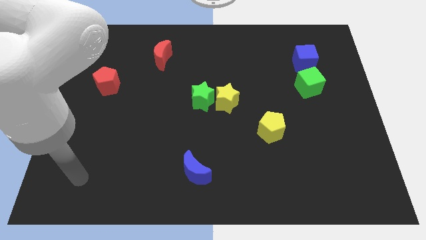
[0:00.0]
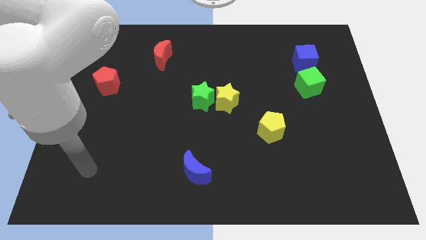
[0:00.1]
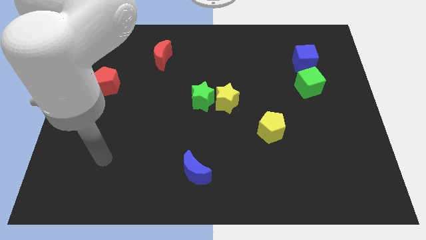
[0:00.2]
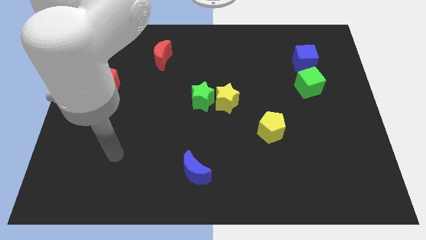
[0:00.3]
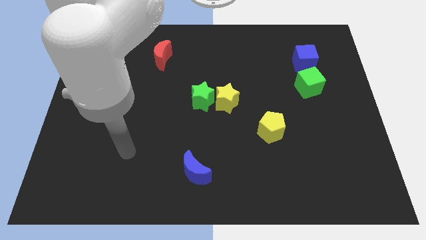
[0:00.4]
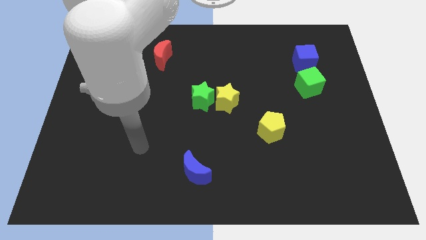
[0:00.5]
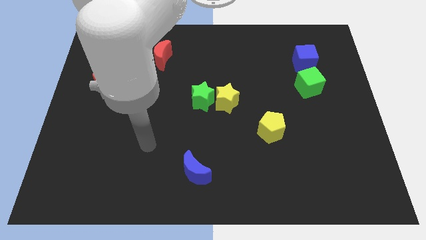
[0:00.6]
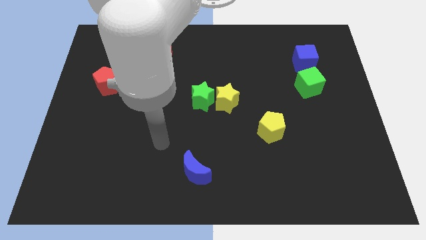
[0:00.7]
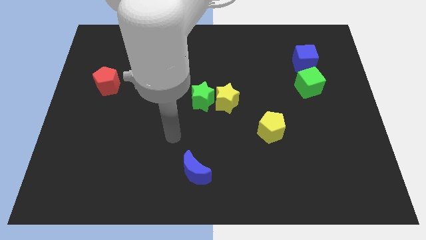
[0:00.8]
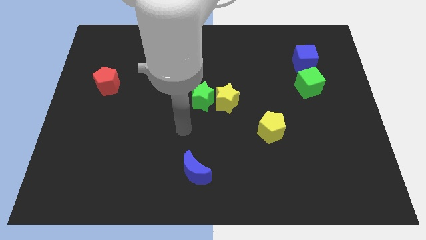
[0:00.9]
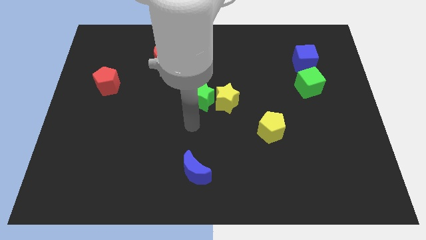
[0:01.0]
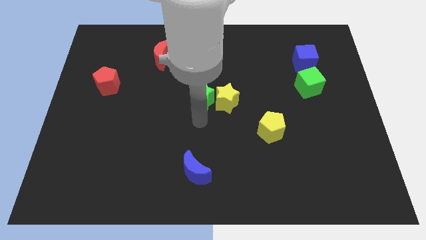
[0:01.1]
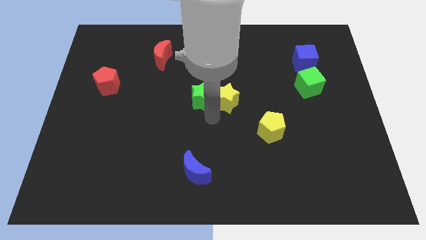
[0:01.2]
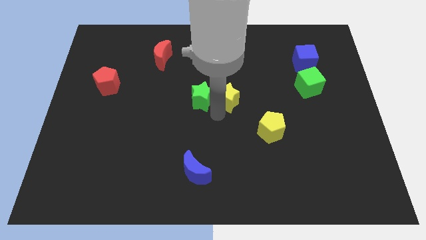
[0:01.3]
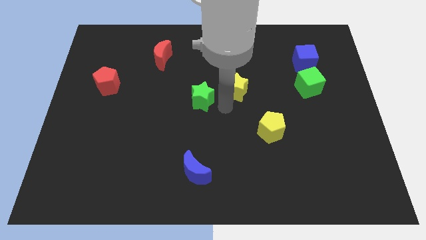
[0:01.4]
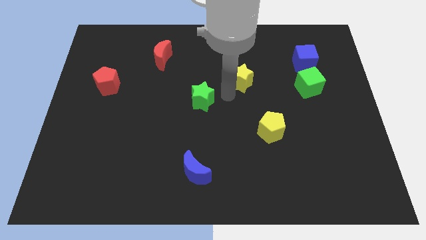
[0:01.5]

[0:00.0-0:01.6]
separate the green star from the yellow star

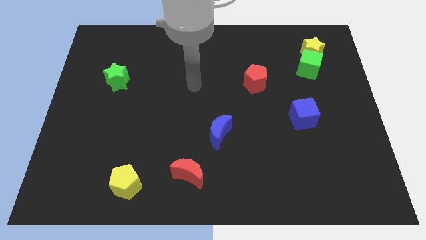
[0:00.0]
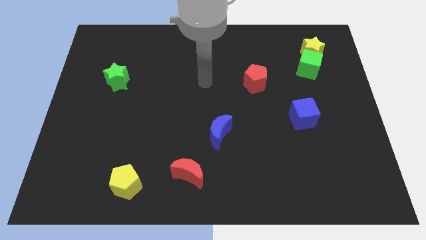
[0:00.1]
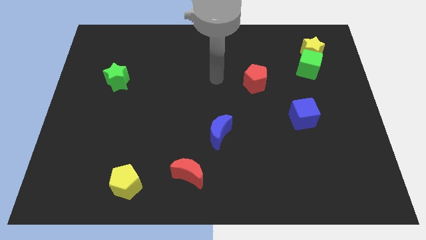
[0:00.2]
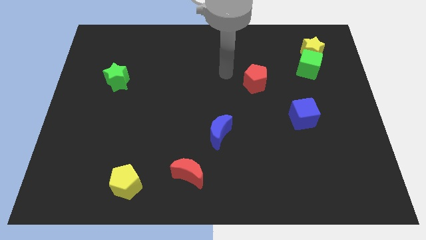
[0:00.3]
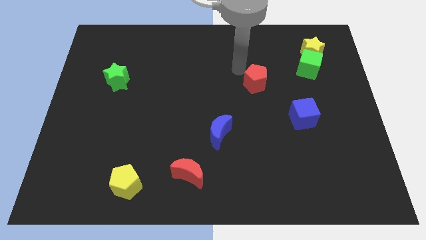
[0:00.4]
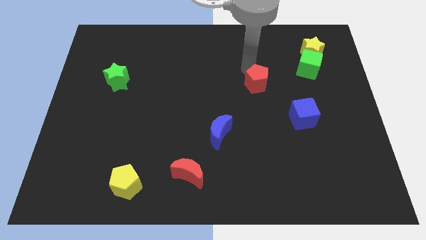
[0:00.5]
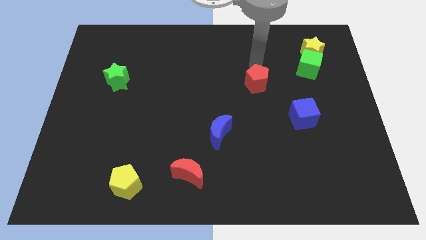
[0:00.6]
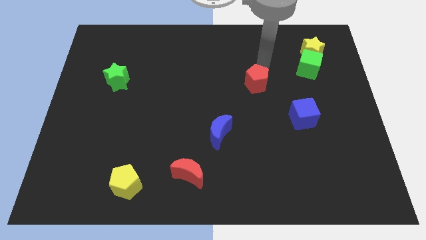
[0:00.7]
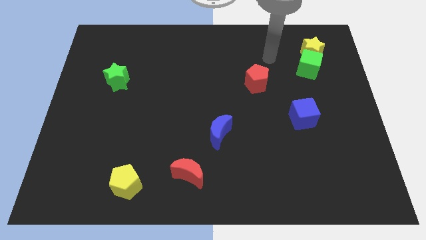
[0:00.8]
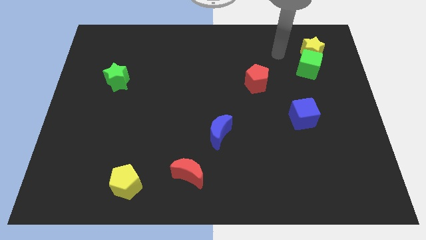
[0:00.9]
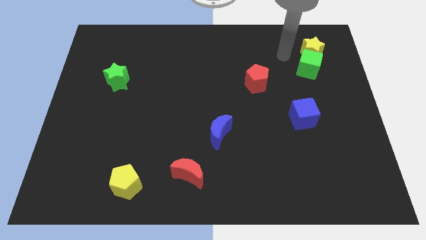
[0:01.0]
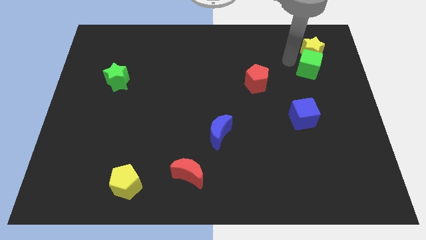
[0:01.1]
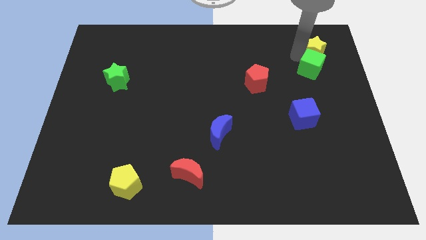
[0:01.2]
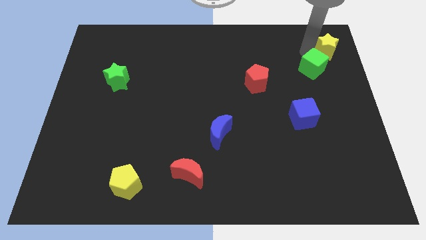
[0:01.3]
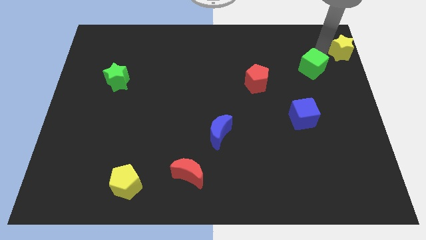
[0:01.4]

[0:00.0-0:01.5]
separate the green cube from the yellow star

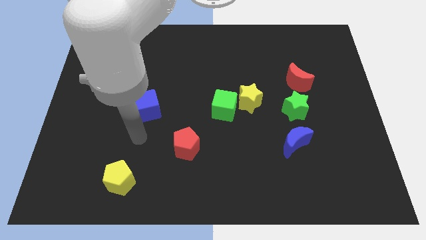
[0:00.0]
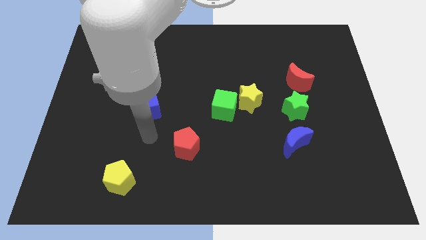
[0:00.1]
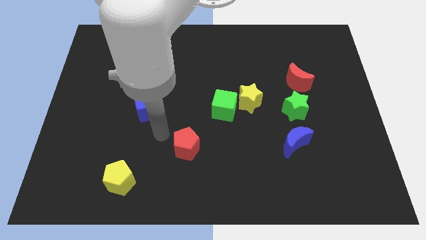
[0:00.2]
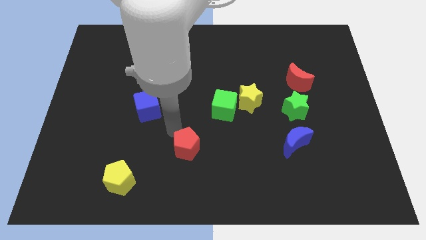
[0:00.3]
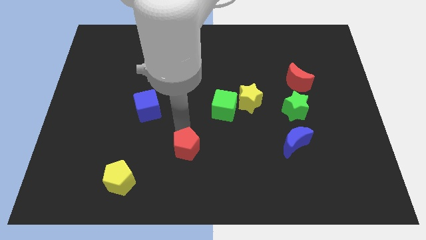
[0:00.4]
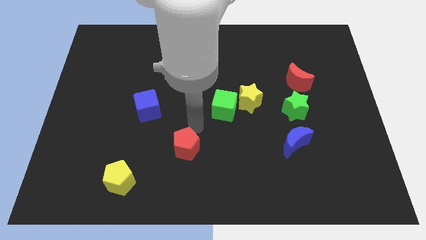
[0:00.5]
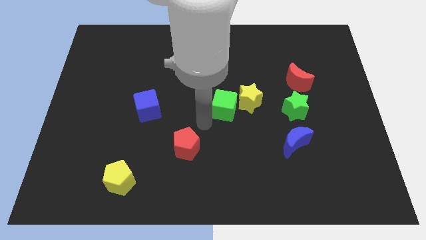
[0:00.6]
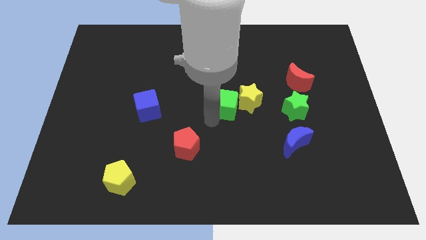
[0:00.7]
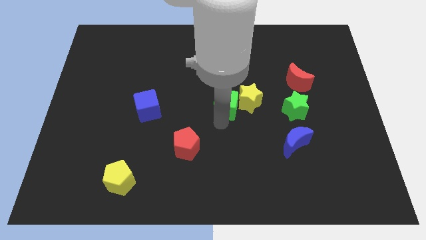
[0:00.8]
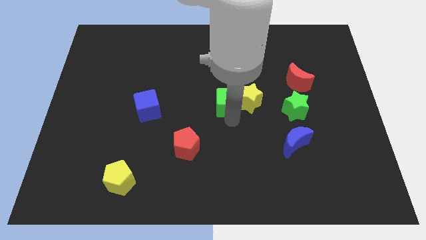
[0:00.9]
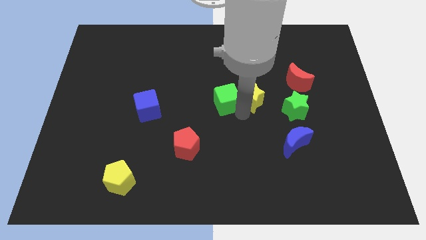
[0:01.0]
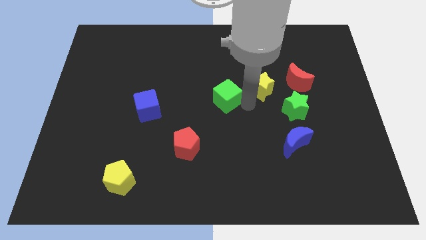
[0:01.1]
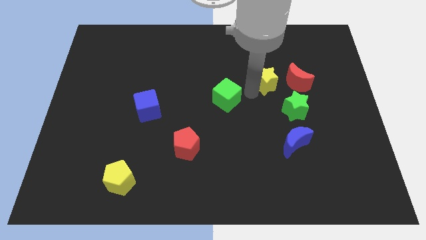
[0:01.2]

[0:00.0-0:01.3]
move the green cube away from the yellow star

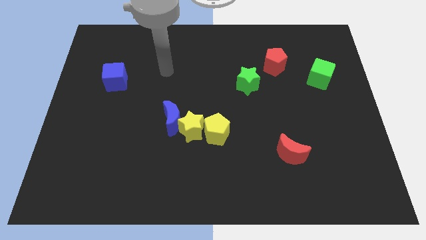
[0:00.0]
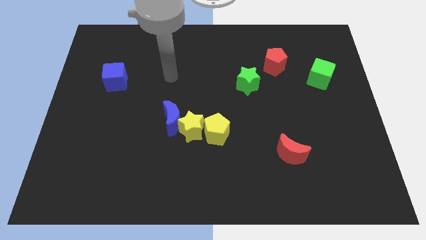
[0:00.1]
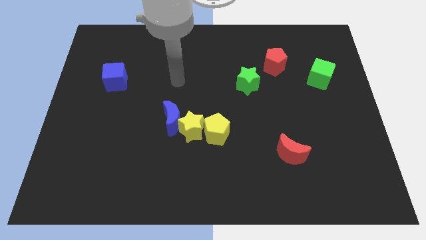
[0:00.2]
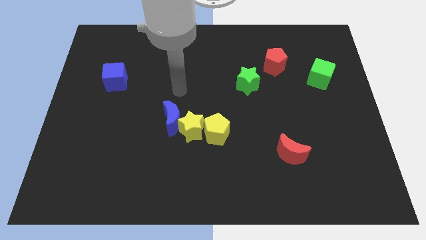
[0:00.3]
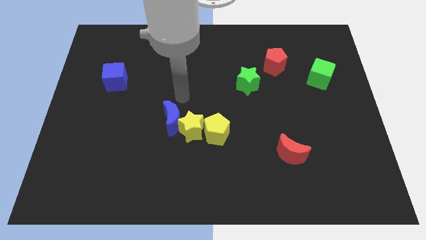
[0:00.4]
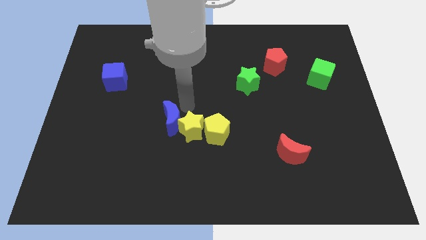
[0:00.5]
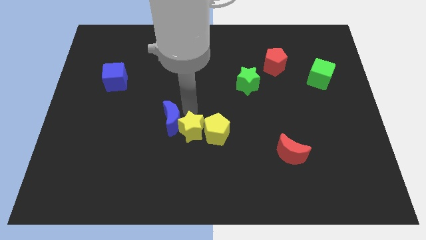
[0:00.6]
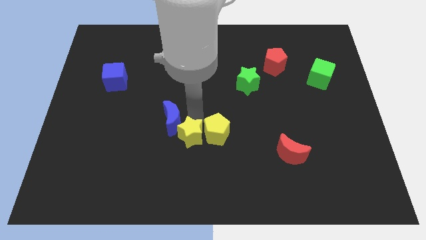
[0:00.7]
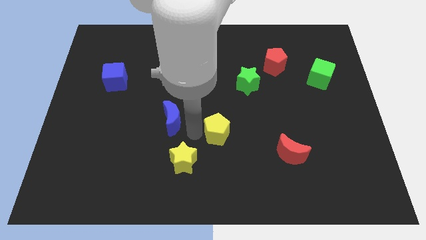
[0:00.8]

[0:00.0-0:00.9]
move the blue moon away from the yellow star

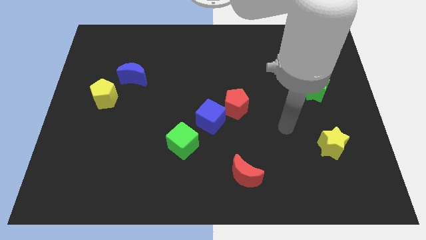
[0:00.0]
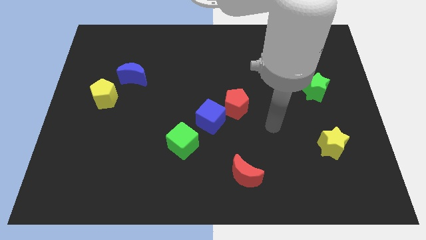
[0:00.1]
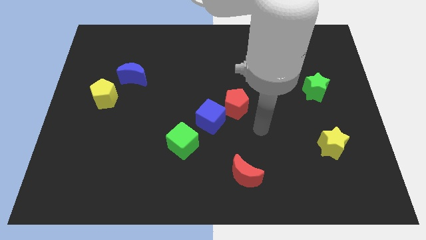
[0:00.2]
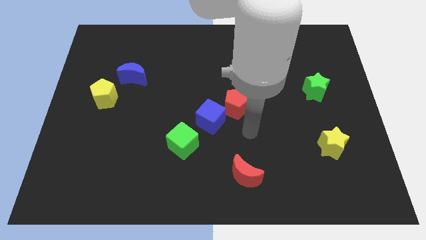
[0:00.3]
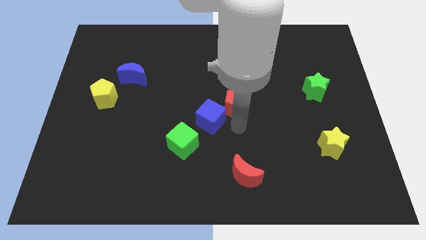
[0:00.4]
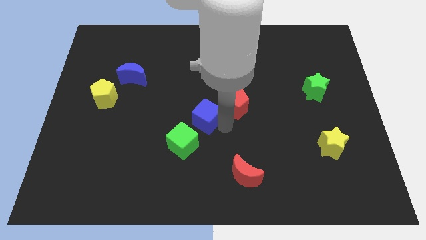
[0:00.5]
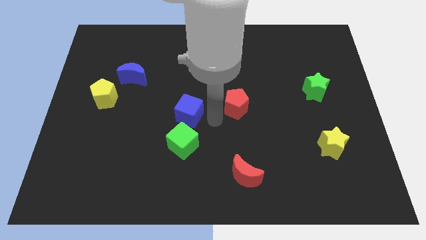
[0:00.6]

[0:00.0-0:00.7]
separate the red pentagon from the blue cube

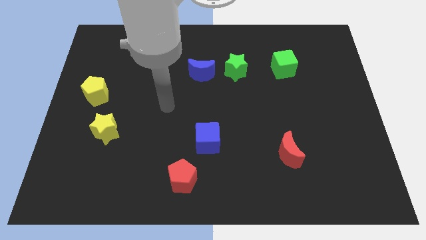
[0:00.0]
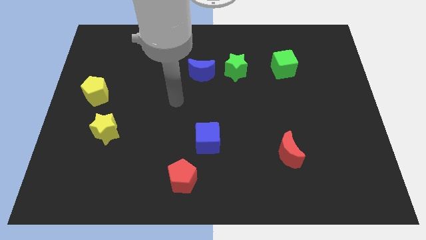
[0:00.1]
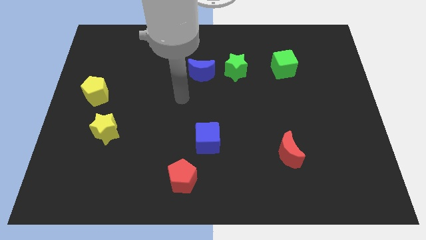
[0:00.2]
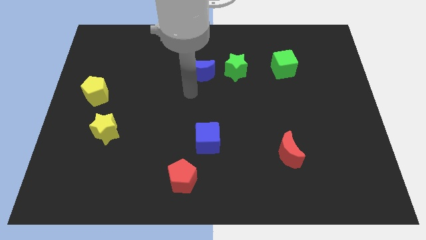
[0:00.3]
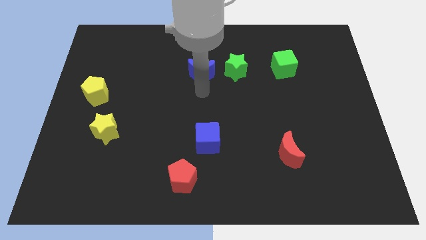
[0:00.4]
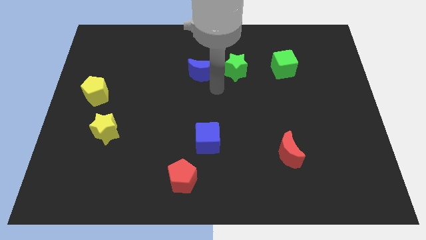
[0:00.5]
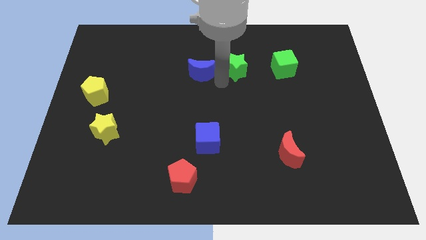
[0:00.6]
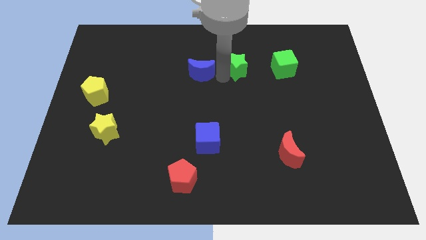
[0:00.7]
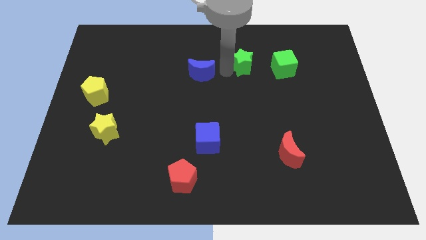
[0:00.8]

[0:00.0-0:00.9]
pull the blue moon apart from the green star

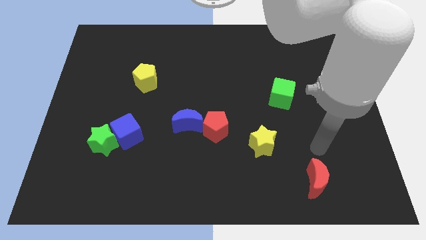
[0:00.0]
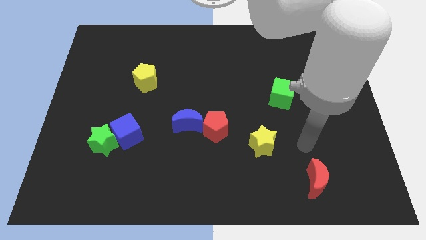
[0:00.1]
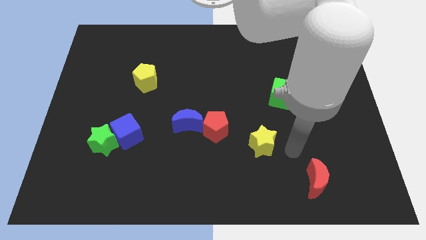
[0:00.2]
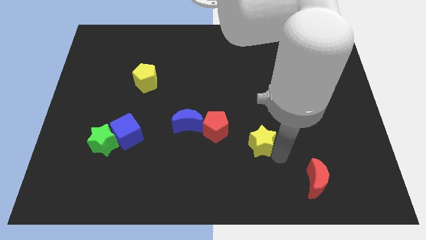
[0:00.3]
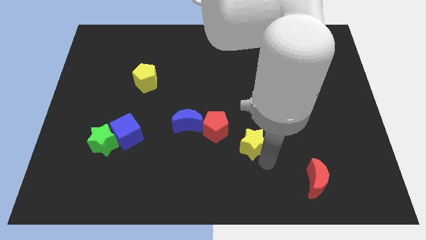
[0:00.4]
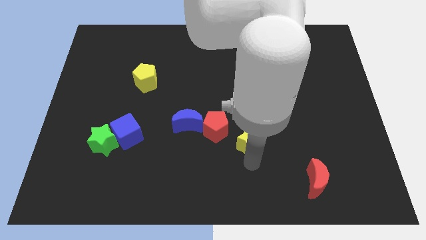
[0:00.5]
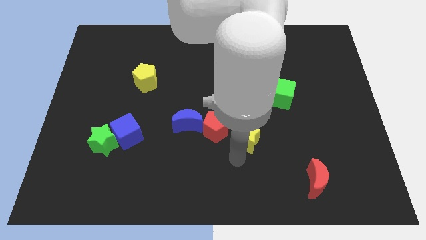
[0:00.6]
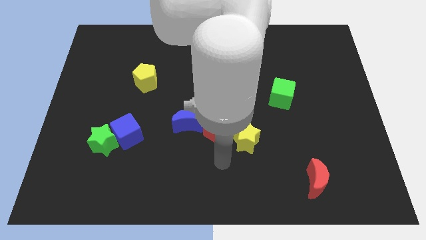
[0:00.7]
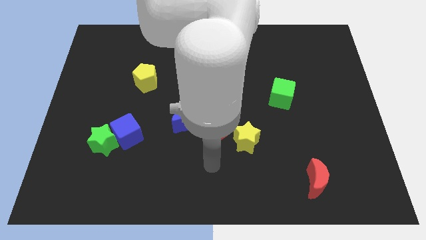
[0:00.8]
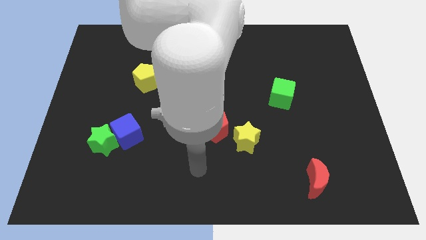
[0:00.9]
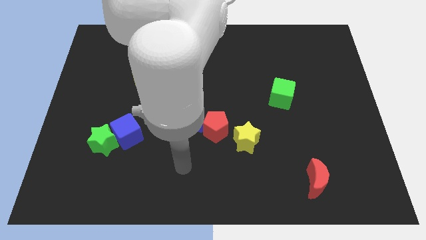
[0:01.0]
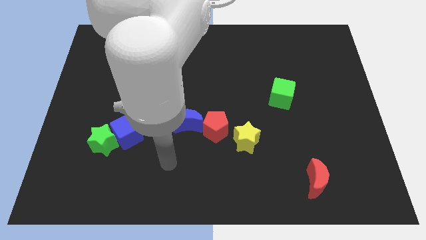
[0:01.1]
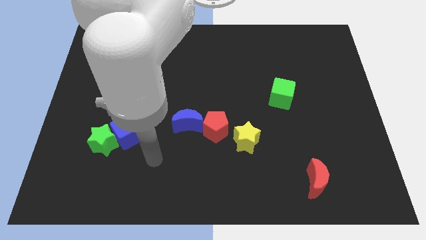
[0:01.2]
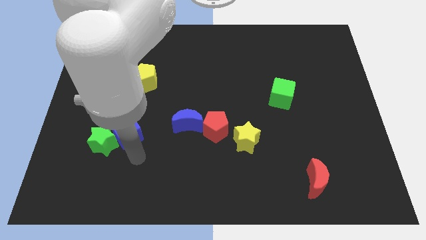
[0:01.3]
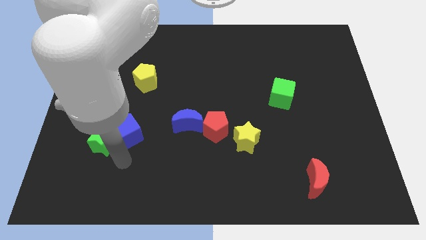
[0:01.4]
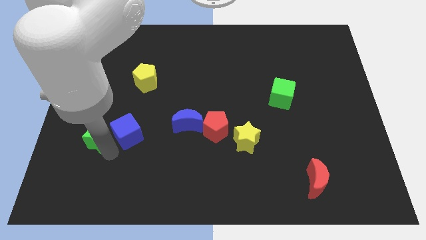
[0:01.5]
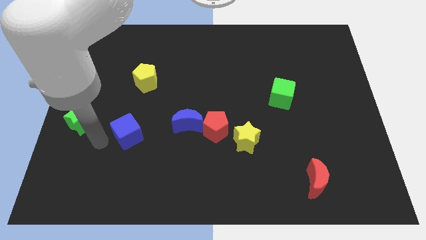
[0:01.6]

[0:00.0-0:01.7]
move the blue cube away from the green star

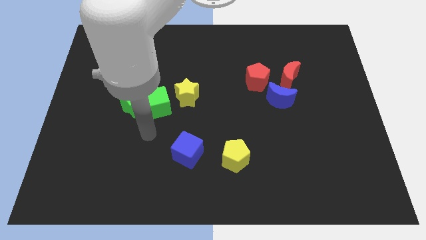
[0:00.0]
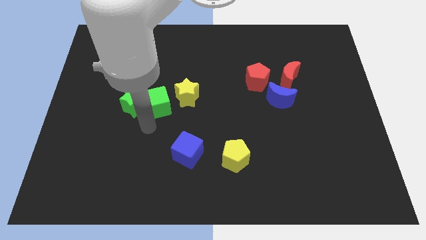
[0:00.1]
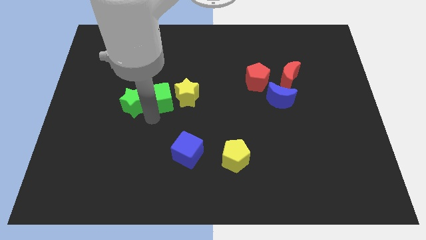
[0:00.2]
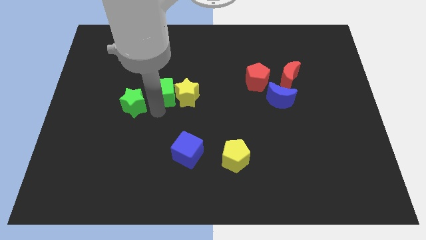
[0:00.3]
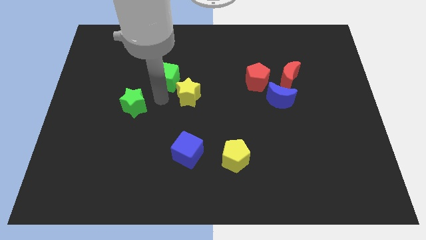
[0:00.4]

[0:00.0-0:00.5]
move the green star away from the green cube

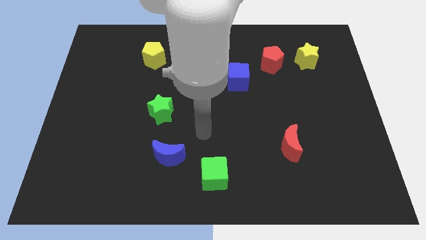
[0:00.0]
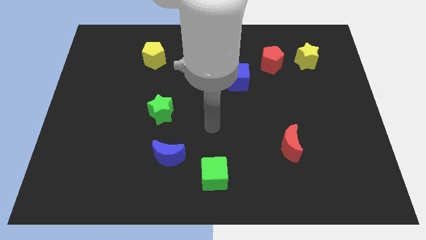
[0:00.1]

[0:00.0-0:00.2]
separate the red pentagon from the yellow star

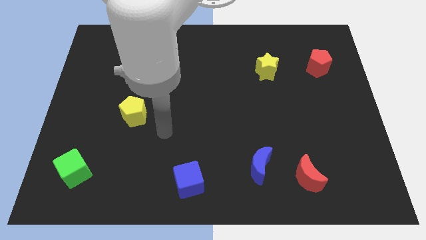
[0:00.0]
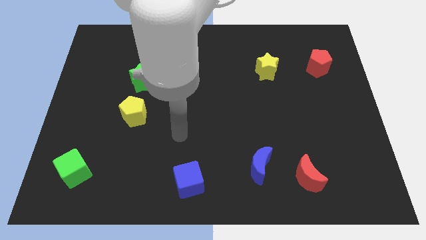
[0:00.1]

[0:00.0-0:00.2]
pull the red moon apart from the blue moon
